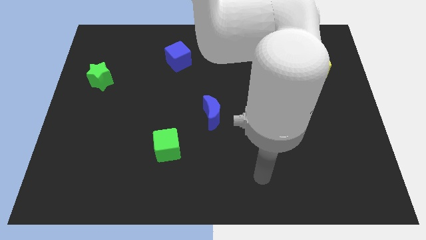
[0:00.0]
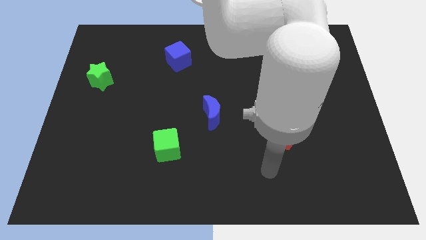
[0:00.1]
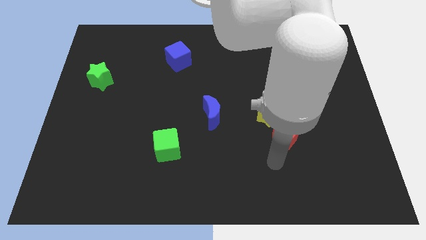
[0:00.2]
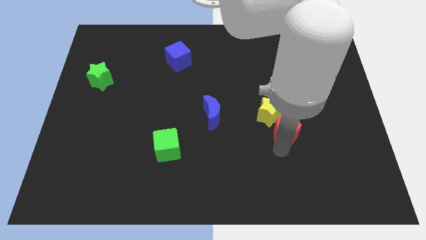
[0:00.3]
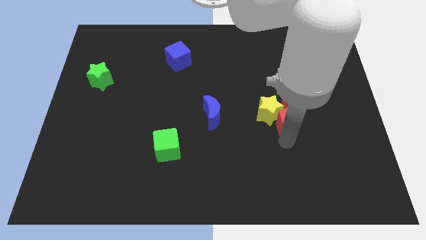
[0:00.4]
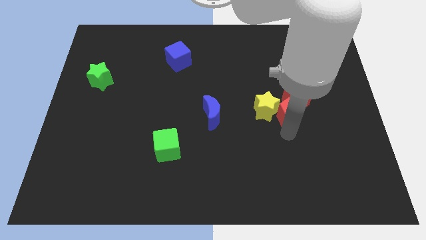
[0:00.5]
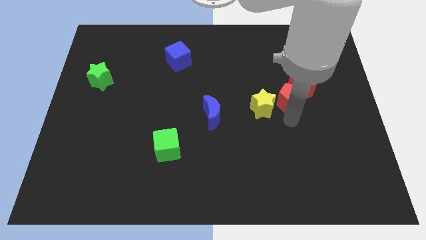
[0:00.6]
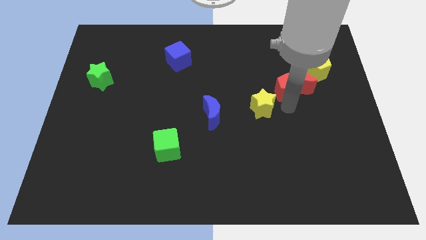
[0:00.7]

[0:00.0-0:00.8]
separate the yellow star from the red moon and red pentagon

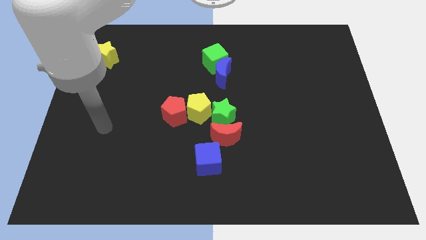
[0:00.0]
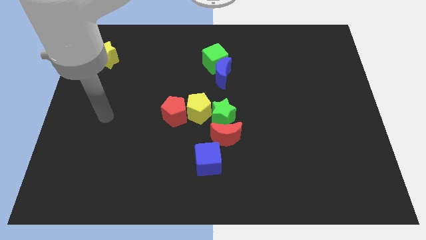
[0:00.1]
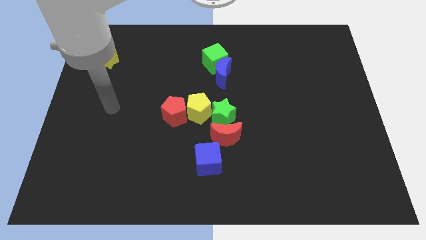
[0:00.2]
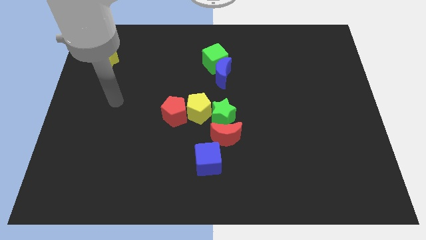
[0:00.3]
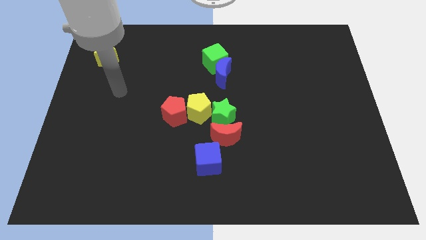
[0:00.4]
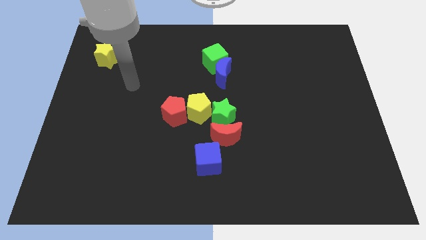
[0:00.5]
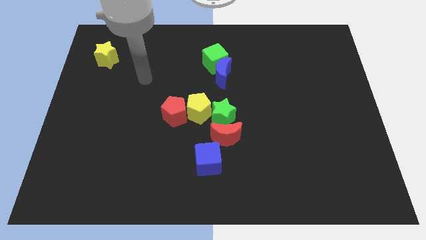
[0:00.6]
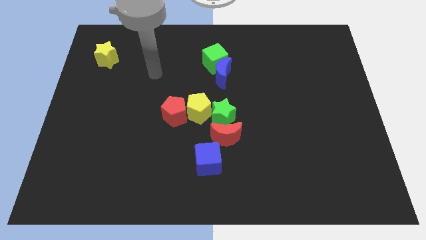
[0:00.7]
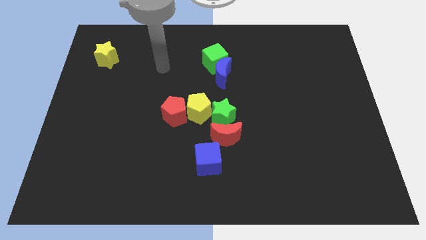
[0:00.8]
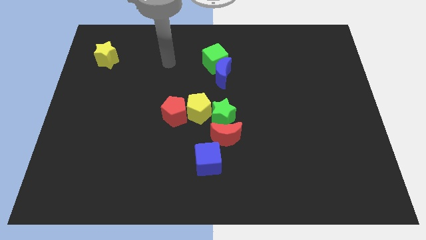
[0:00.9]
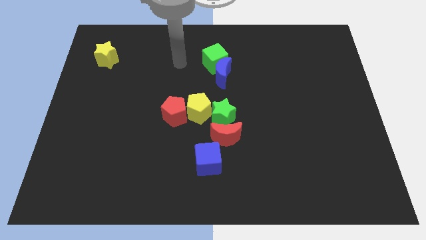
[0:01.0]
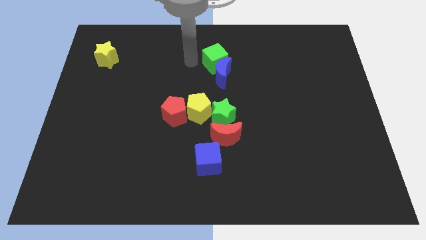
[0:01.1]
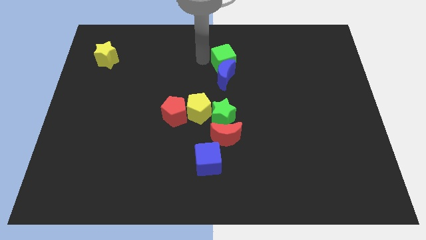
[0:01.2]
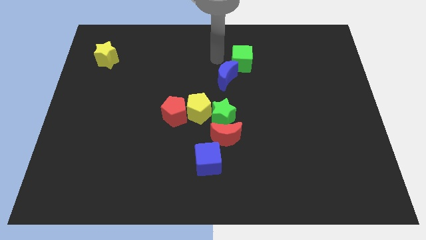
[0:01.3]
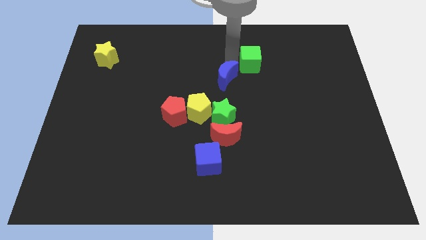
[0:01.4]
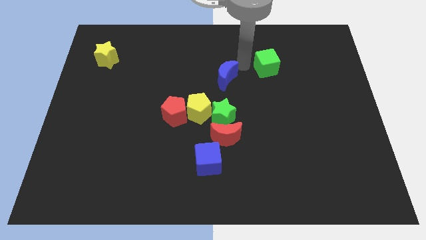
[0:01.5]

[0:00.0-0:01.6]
pull the blue moon apart from the green cube

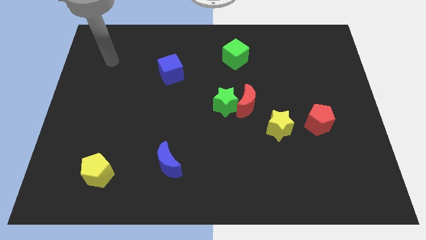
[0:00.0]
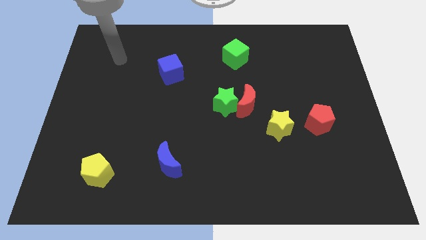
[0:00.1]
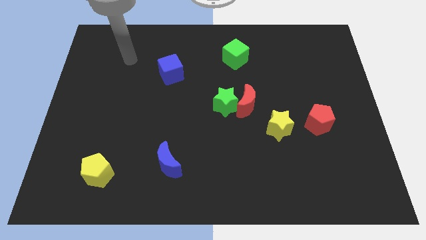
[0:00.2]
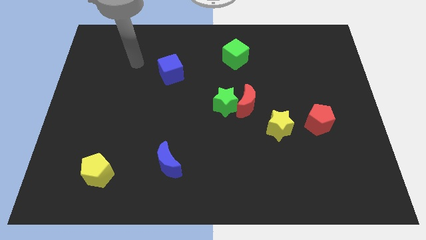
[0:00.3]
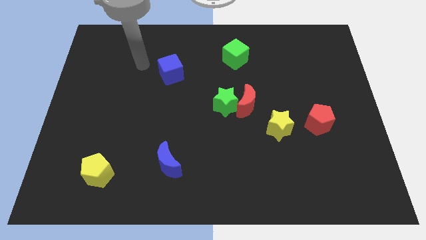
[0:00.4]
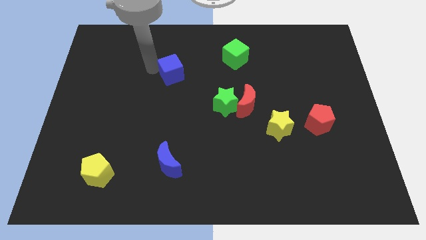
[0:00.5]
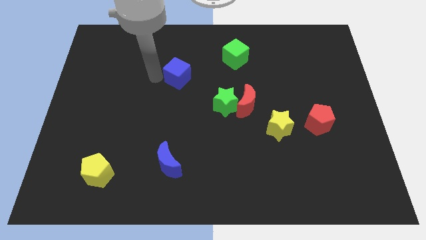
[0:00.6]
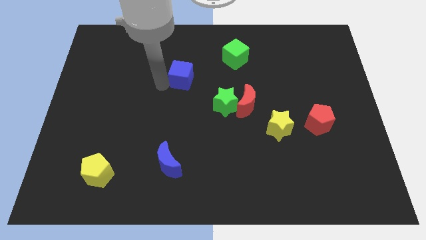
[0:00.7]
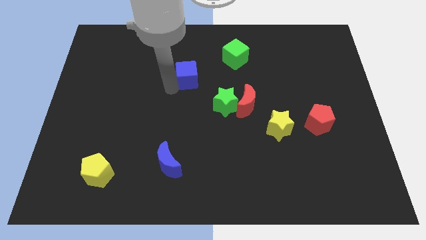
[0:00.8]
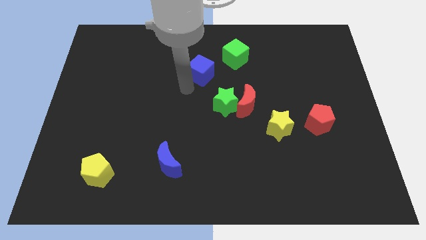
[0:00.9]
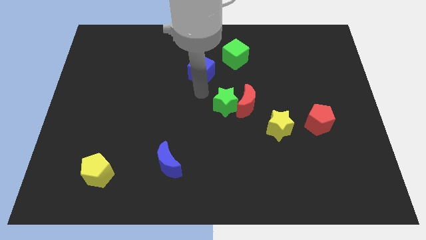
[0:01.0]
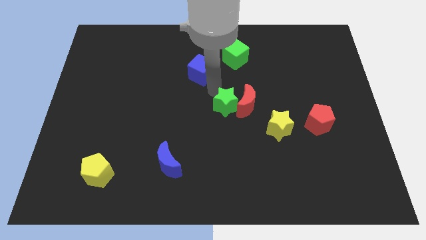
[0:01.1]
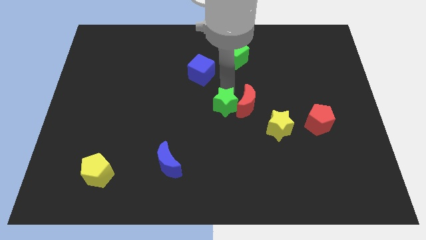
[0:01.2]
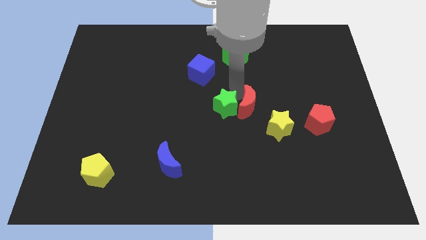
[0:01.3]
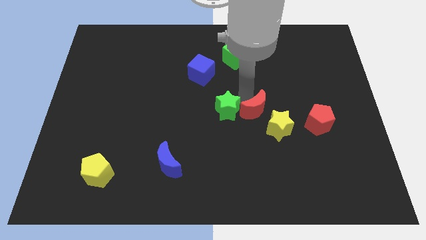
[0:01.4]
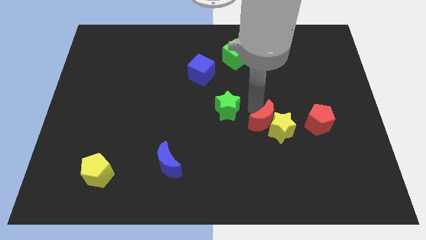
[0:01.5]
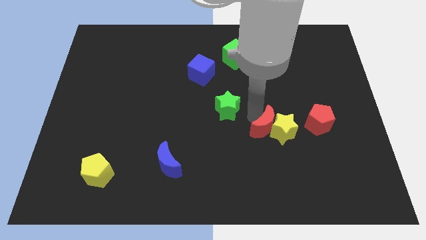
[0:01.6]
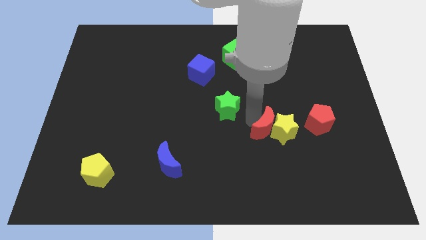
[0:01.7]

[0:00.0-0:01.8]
separate the green star from the red moon

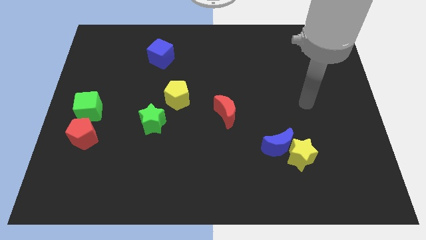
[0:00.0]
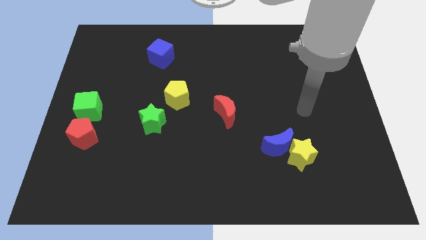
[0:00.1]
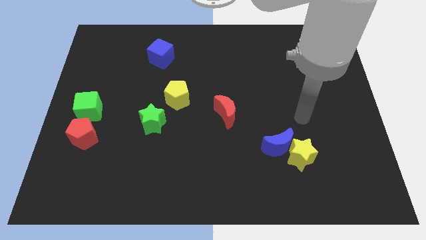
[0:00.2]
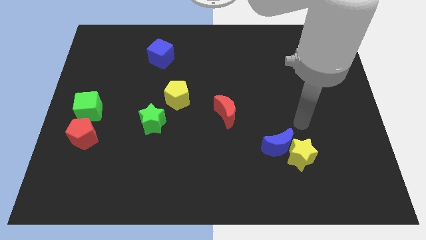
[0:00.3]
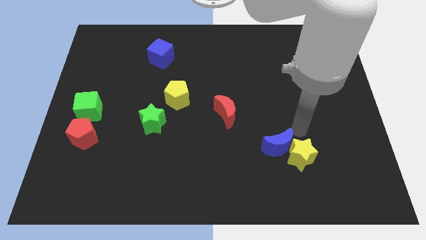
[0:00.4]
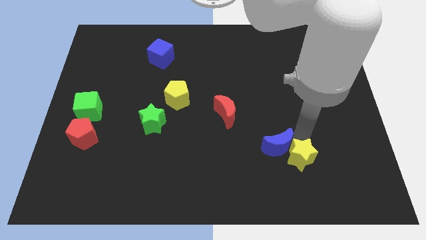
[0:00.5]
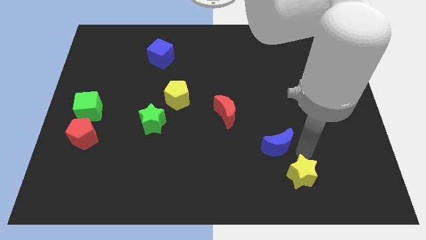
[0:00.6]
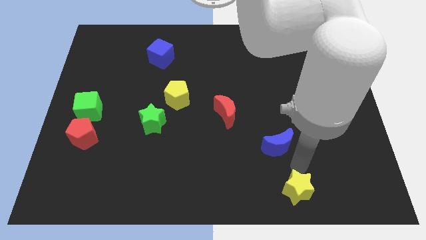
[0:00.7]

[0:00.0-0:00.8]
separate the blue moon from the yellow star

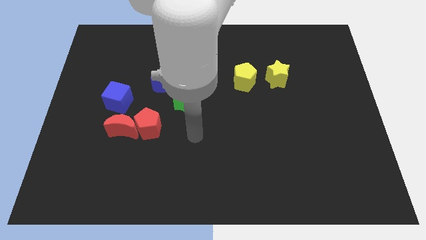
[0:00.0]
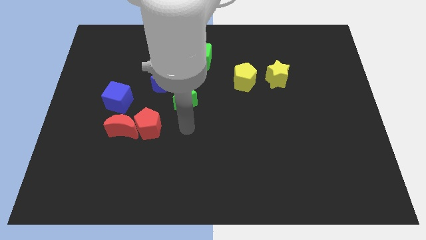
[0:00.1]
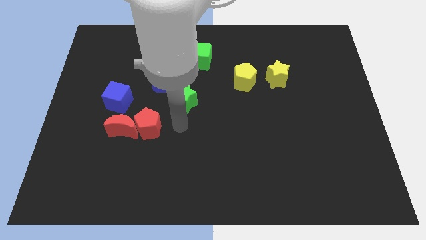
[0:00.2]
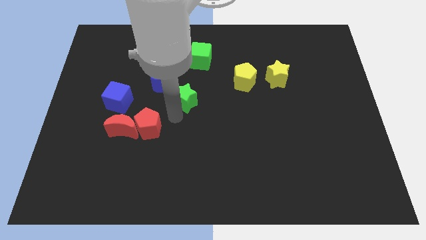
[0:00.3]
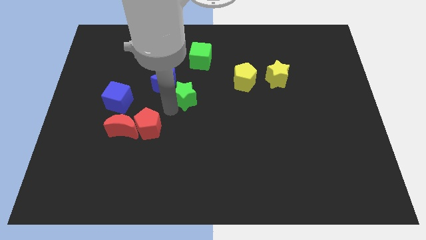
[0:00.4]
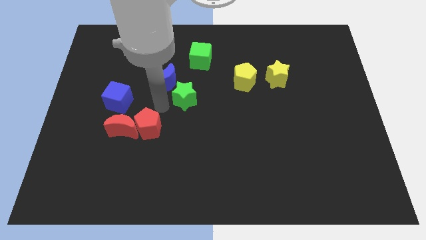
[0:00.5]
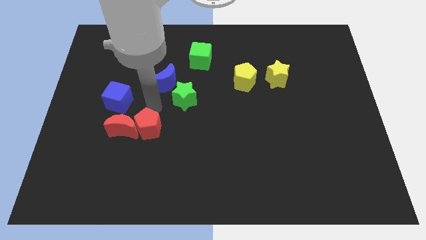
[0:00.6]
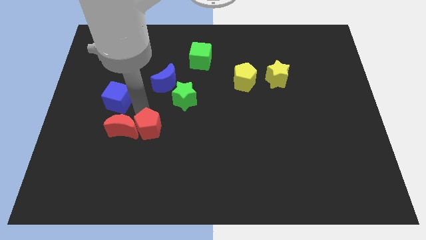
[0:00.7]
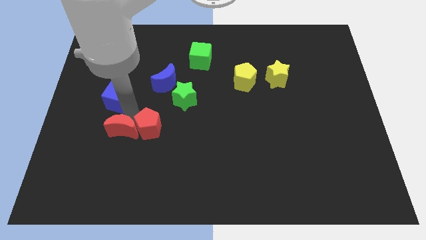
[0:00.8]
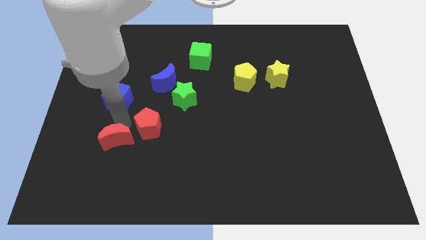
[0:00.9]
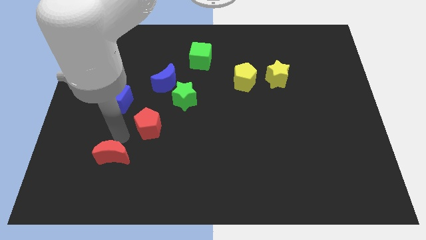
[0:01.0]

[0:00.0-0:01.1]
separate the red pentagon from the red moon

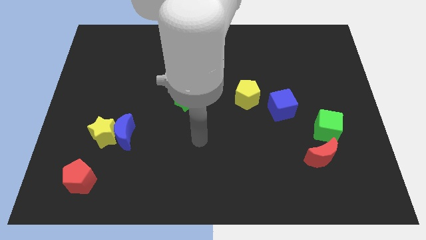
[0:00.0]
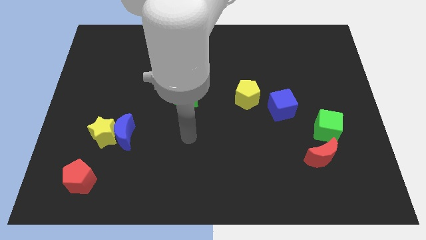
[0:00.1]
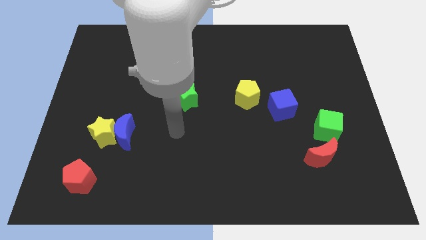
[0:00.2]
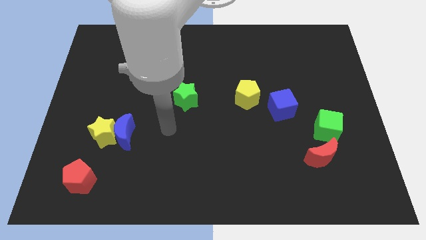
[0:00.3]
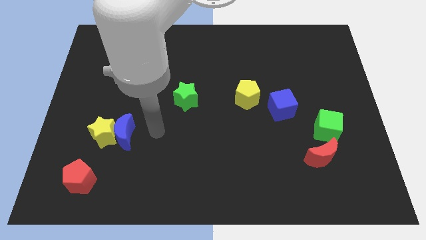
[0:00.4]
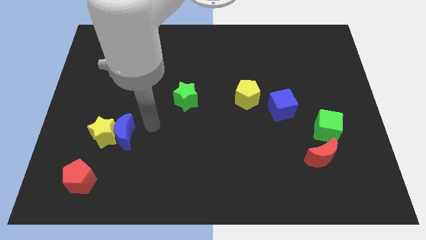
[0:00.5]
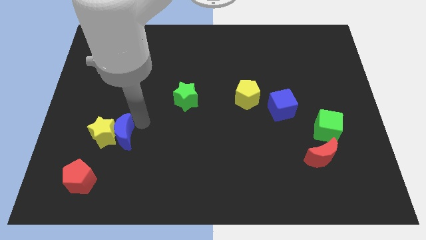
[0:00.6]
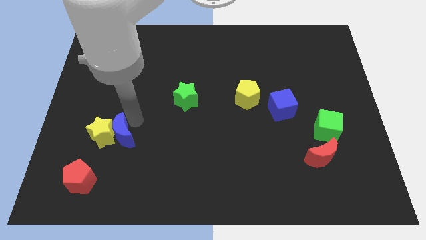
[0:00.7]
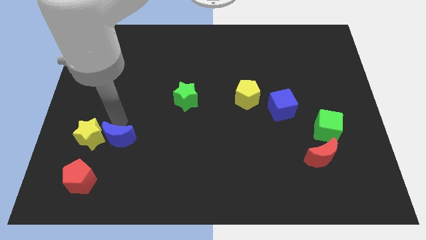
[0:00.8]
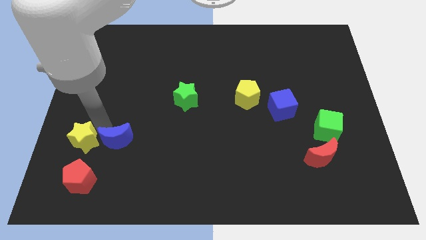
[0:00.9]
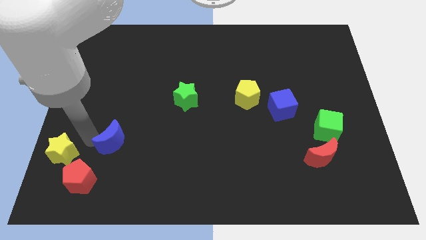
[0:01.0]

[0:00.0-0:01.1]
pull the blue moon apart from the yellow star

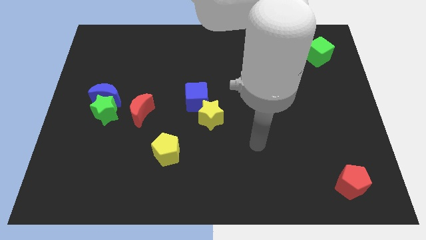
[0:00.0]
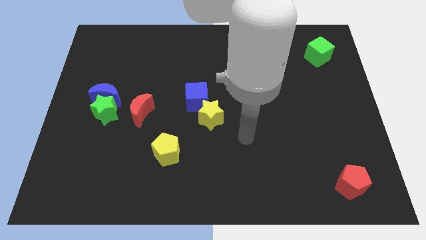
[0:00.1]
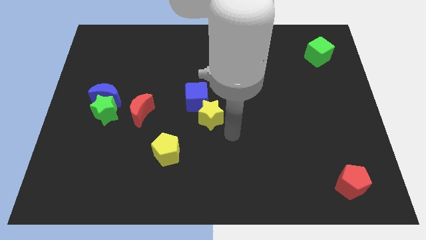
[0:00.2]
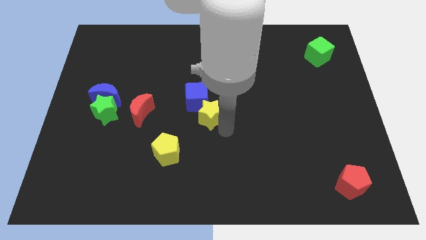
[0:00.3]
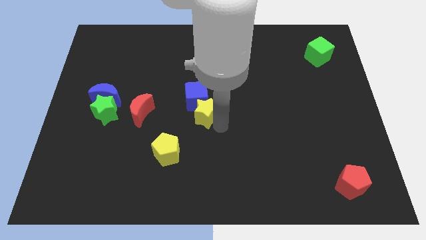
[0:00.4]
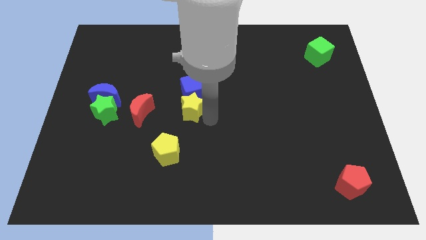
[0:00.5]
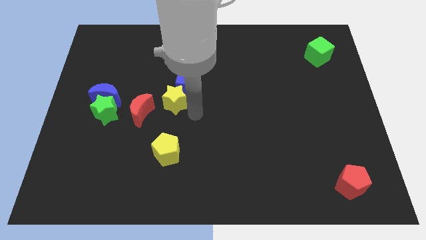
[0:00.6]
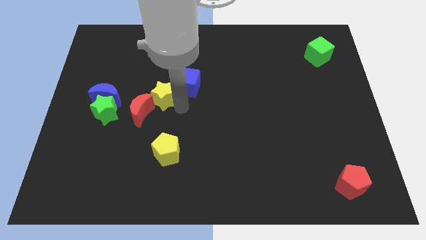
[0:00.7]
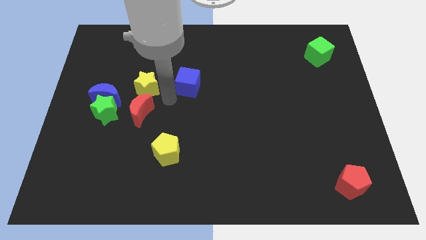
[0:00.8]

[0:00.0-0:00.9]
move the blue cube away from the yellow star

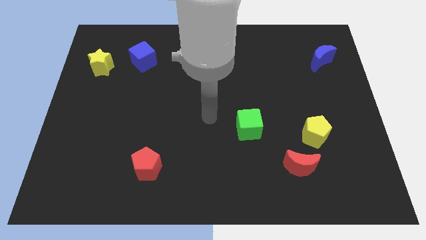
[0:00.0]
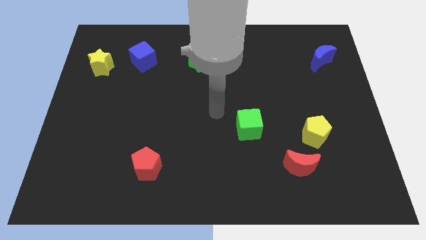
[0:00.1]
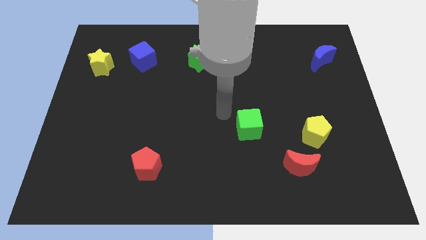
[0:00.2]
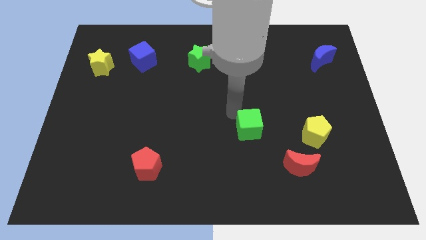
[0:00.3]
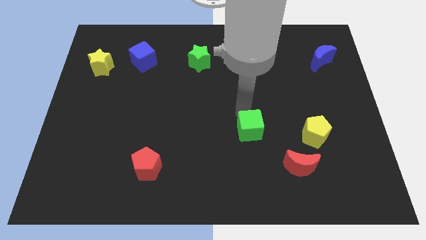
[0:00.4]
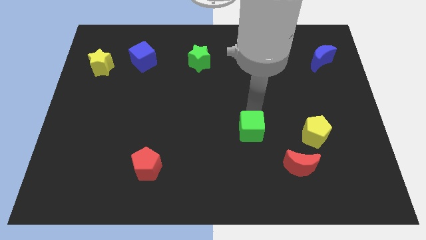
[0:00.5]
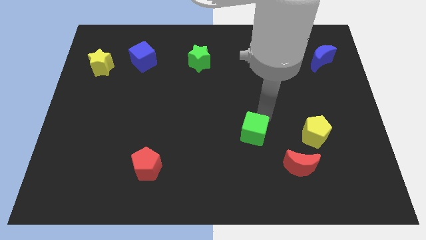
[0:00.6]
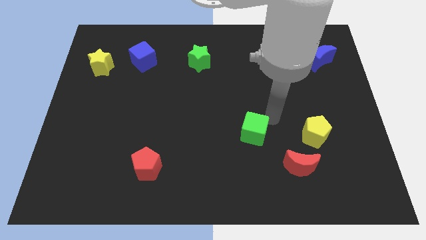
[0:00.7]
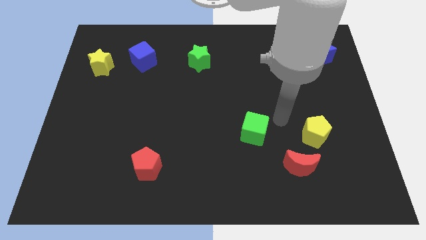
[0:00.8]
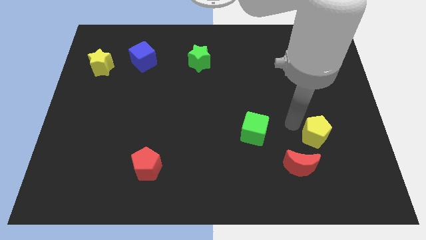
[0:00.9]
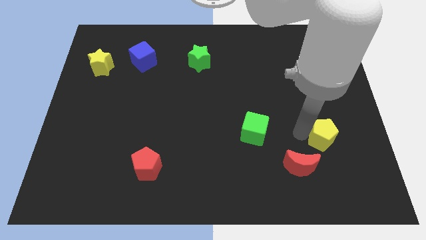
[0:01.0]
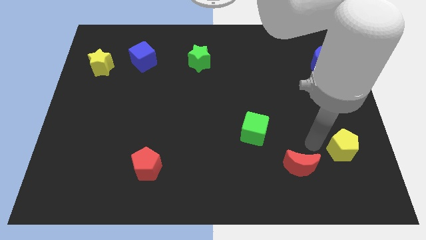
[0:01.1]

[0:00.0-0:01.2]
pull the red moon apart from the yellow pentagon
